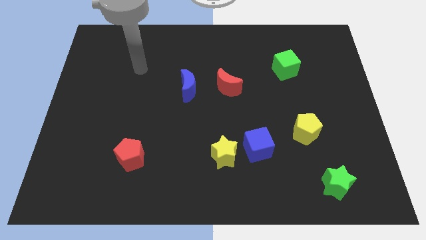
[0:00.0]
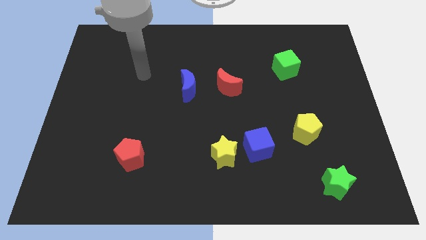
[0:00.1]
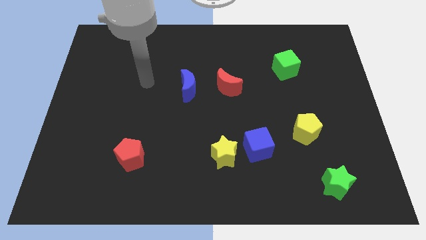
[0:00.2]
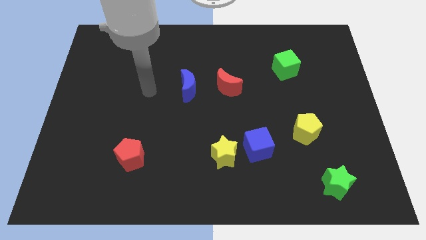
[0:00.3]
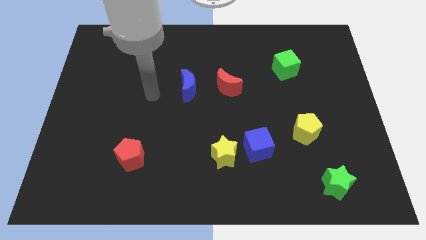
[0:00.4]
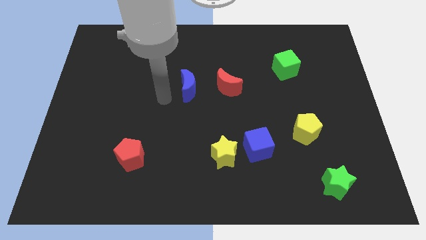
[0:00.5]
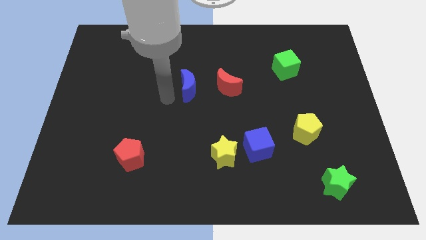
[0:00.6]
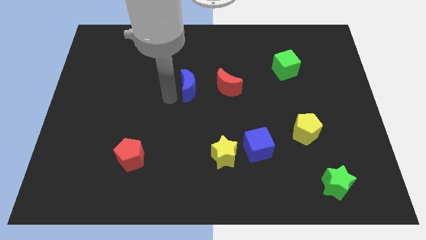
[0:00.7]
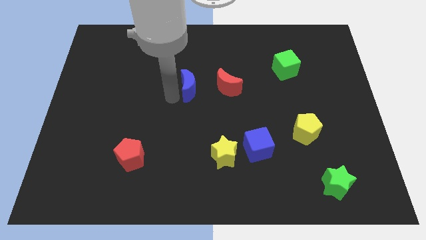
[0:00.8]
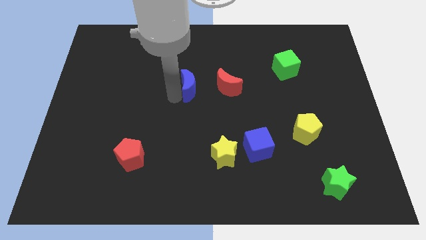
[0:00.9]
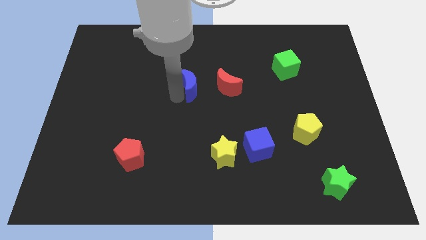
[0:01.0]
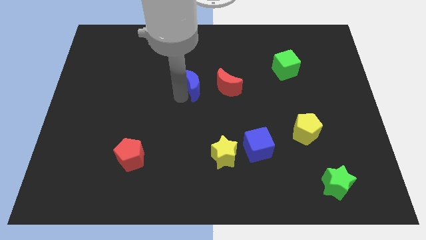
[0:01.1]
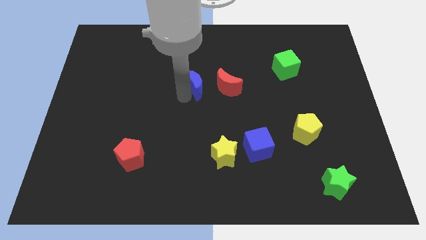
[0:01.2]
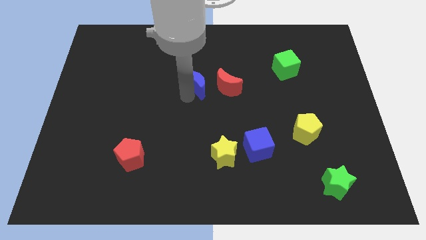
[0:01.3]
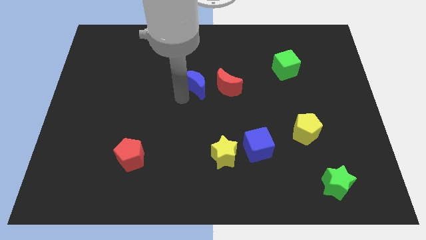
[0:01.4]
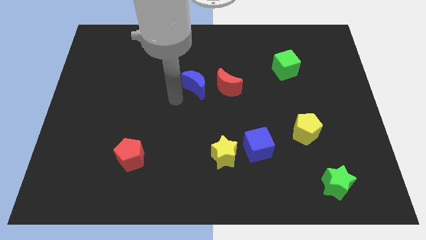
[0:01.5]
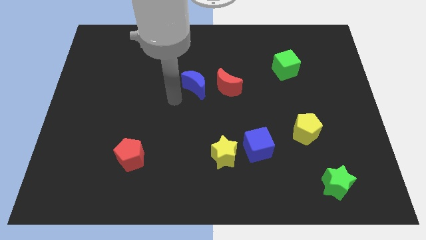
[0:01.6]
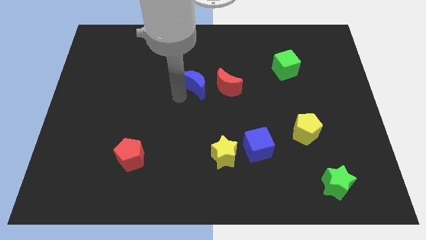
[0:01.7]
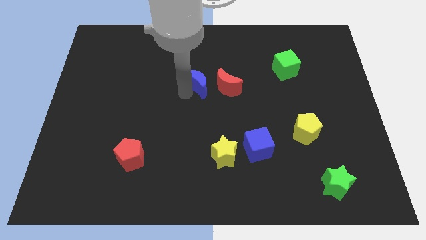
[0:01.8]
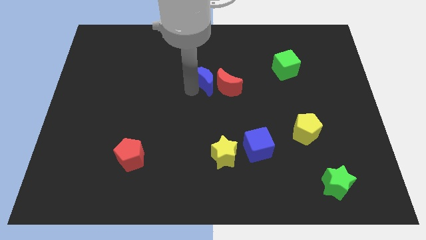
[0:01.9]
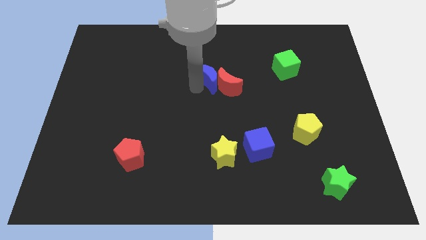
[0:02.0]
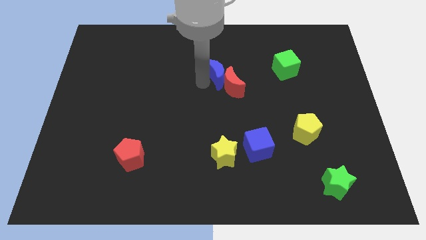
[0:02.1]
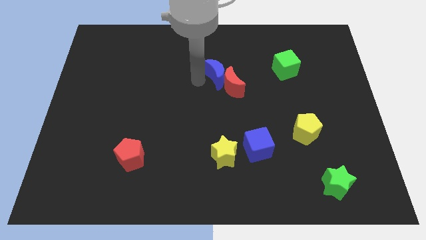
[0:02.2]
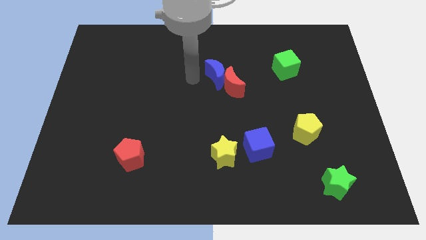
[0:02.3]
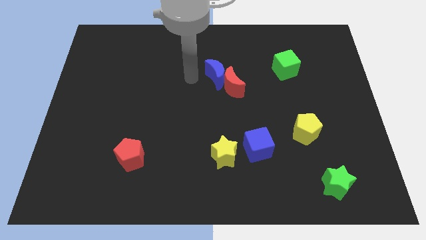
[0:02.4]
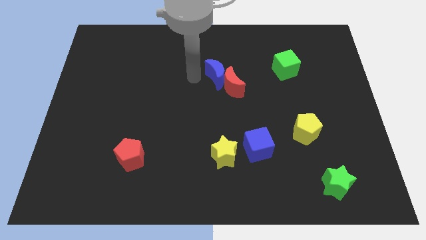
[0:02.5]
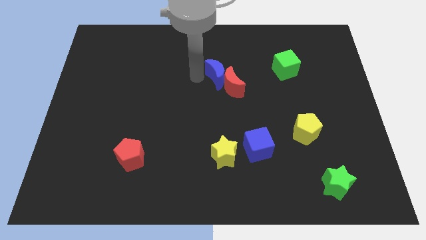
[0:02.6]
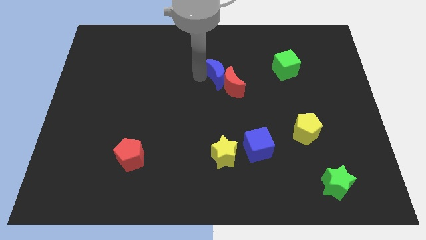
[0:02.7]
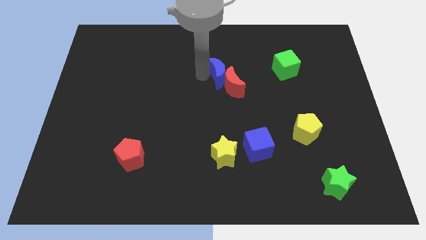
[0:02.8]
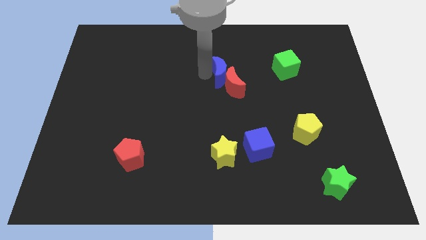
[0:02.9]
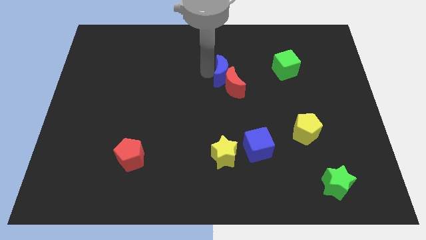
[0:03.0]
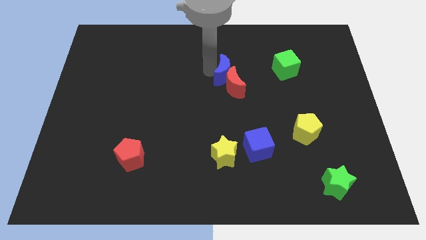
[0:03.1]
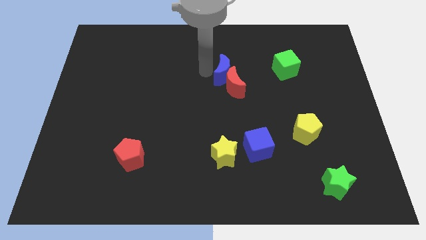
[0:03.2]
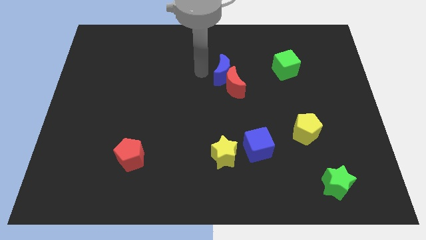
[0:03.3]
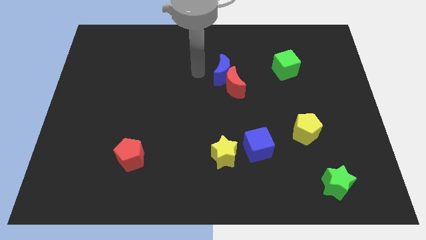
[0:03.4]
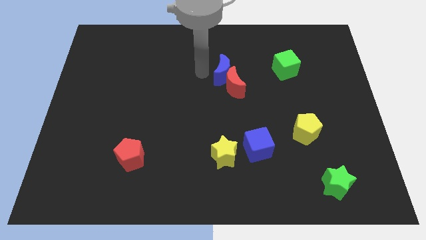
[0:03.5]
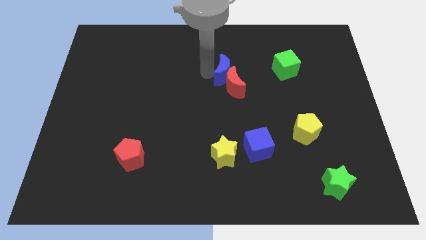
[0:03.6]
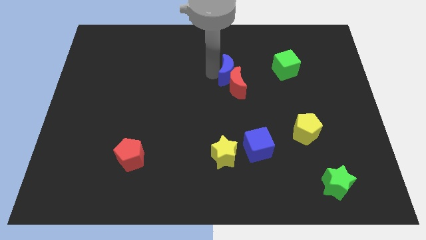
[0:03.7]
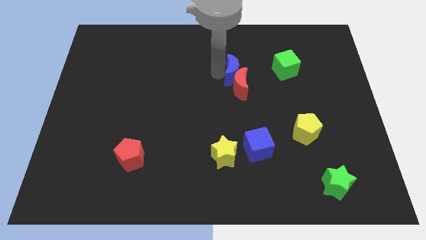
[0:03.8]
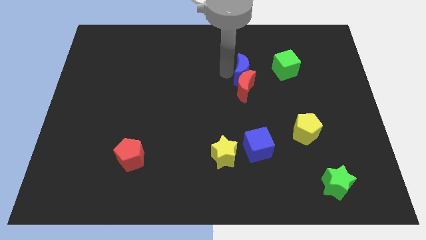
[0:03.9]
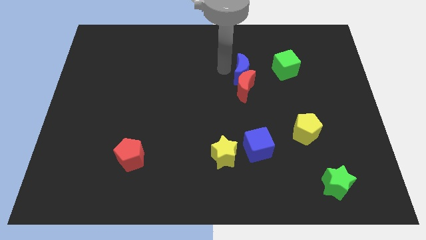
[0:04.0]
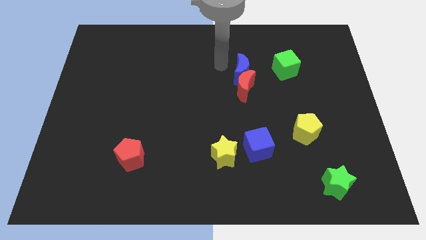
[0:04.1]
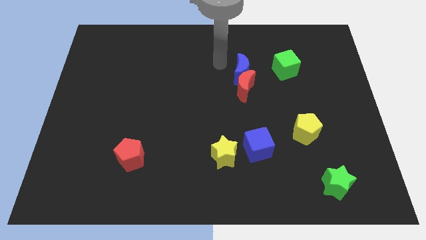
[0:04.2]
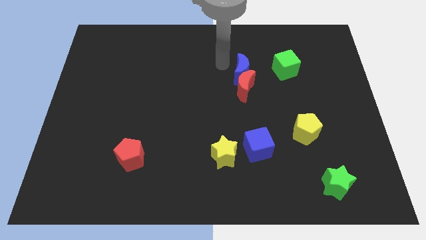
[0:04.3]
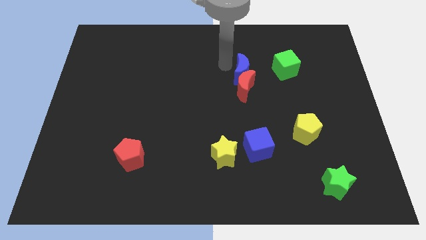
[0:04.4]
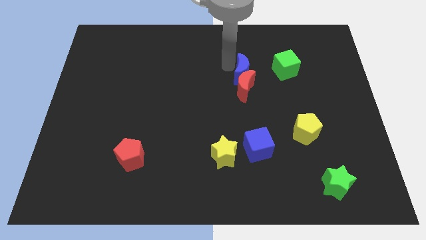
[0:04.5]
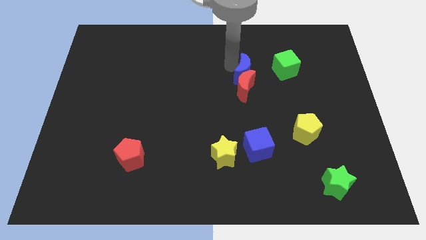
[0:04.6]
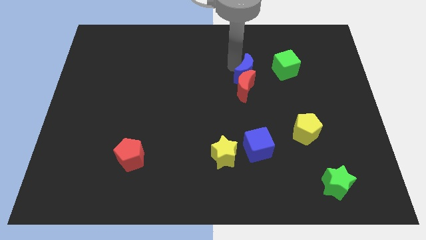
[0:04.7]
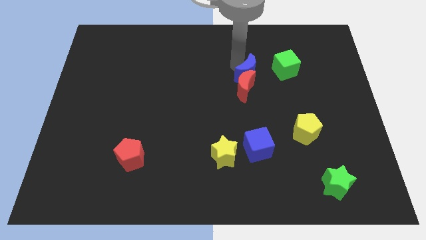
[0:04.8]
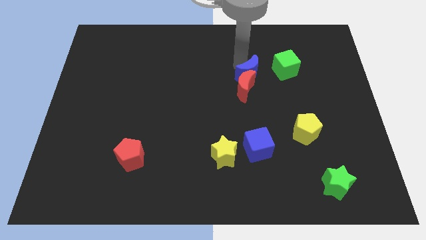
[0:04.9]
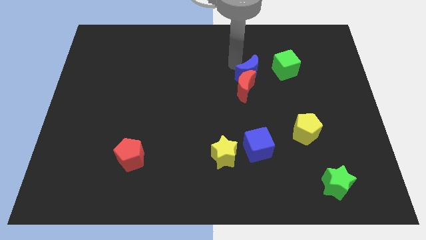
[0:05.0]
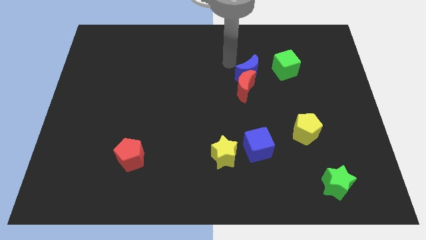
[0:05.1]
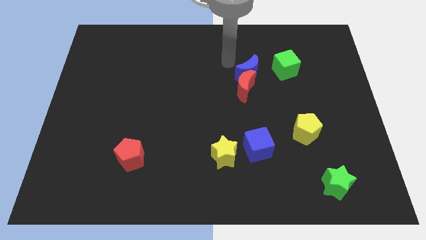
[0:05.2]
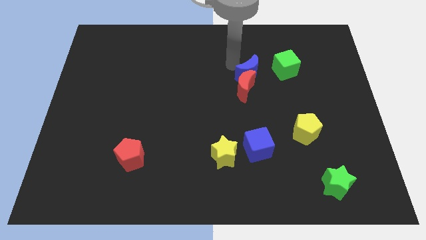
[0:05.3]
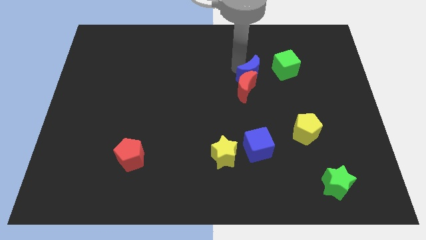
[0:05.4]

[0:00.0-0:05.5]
push the blue moon to the bottom left of the green cube
